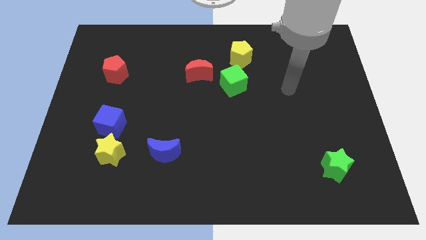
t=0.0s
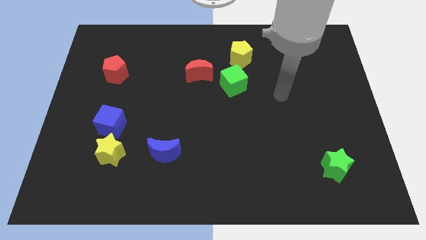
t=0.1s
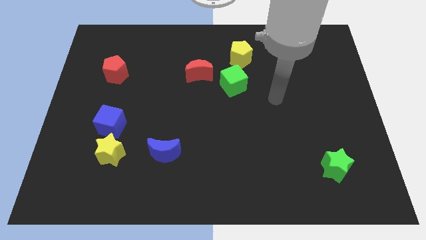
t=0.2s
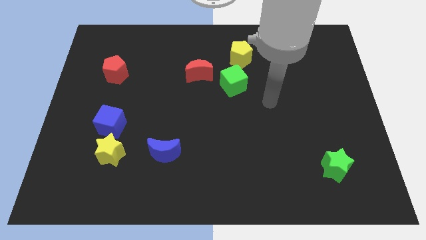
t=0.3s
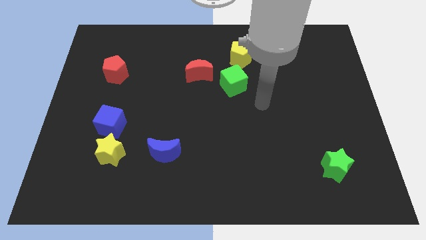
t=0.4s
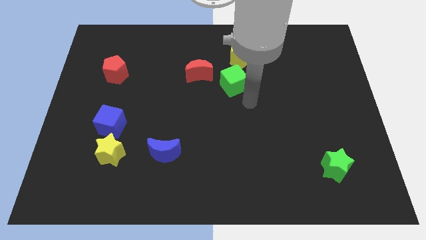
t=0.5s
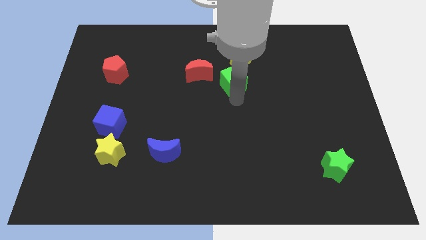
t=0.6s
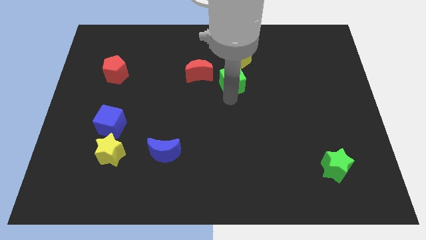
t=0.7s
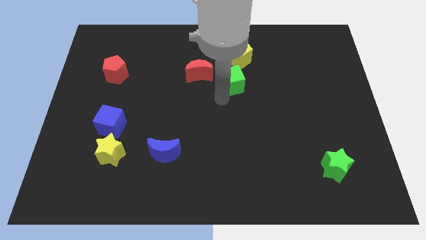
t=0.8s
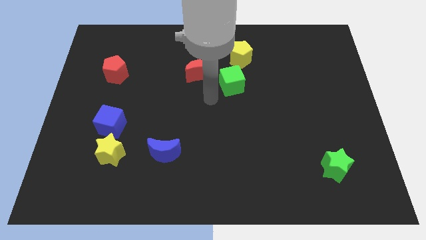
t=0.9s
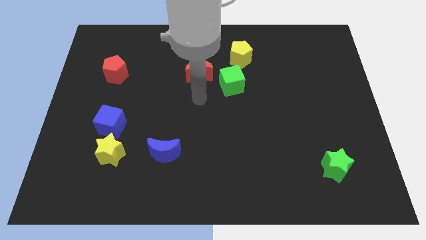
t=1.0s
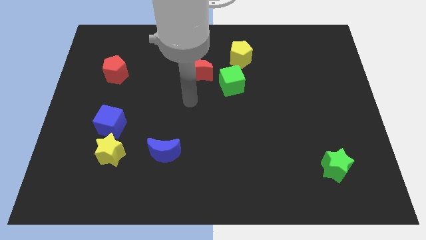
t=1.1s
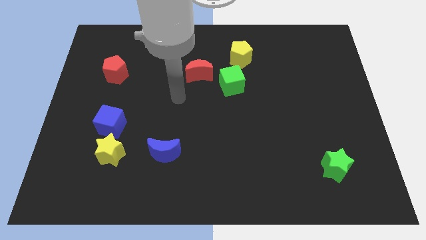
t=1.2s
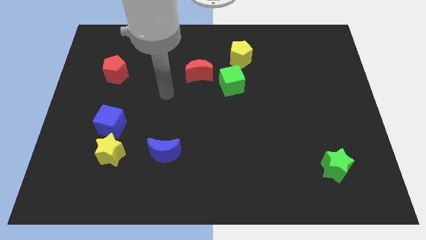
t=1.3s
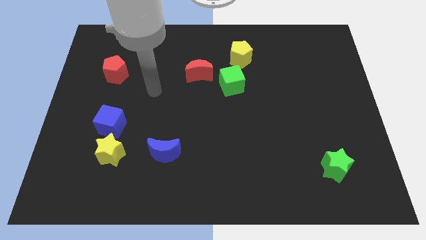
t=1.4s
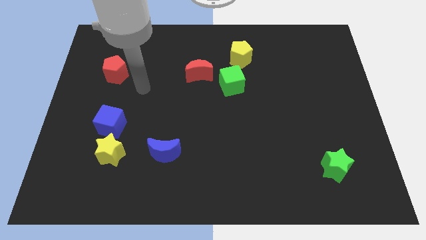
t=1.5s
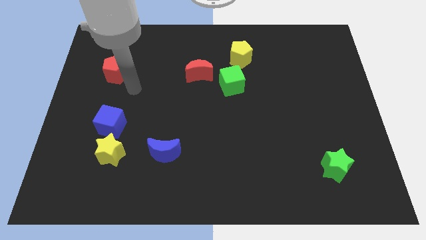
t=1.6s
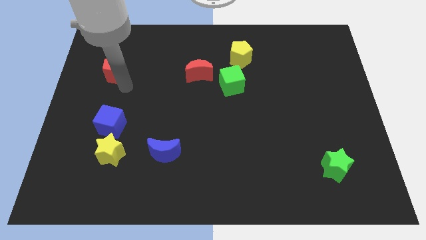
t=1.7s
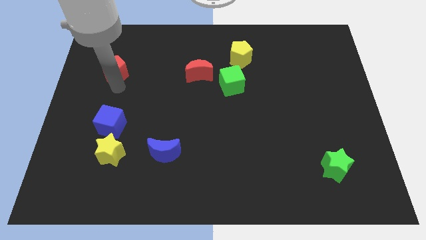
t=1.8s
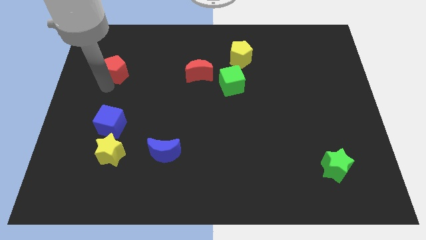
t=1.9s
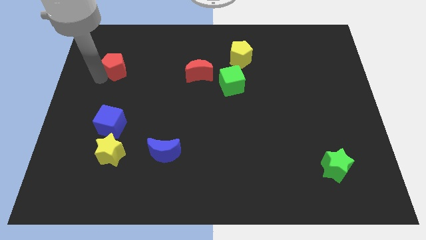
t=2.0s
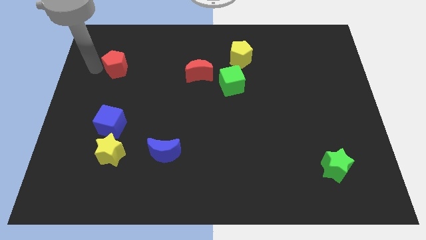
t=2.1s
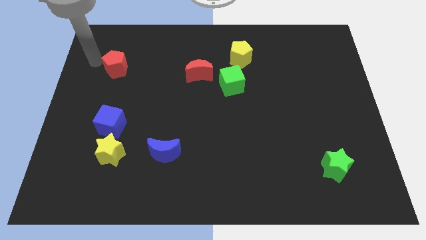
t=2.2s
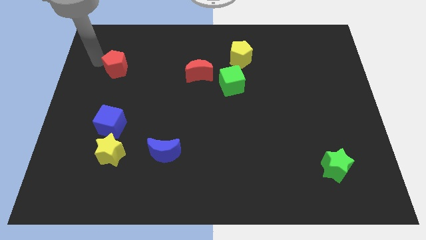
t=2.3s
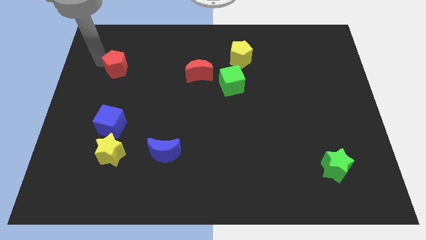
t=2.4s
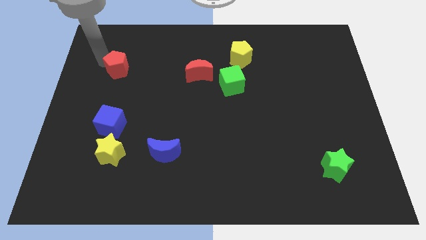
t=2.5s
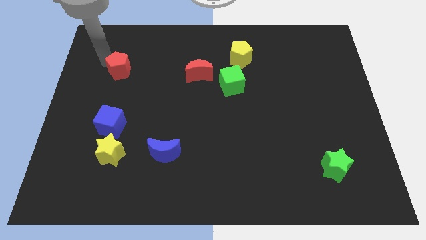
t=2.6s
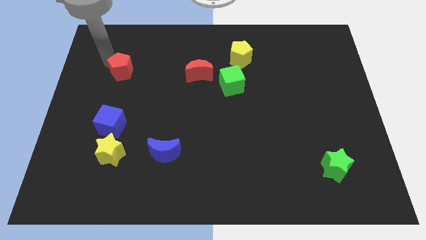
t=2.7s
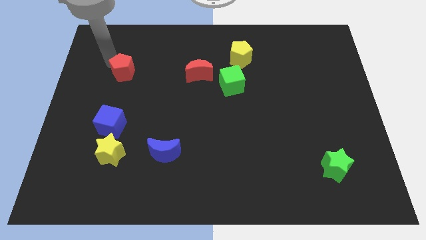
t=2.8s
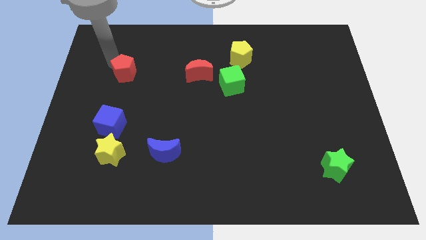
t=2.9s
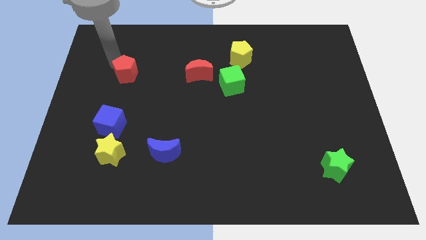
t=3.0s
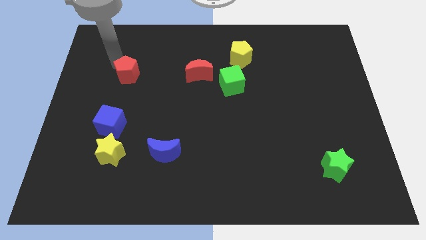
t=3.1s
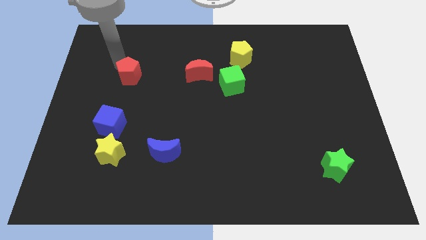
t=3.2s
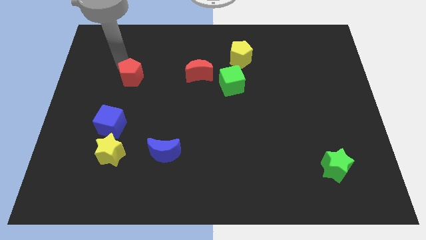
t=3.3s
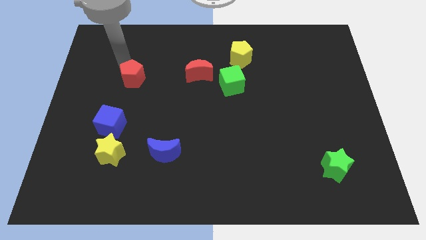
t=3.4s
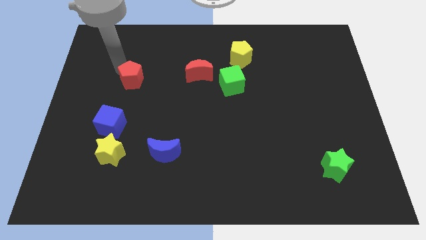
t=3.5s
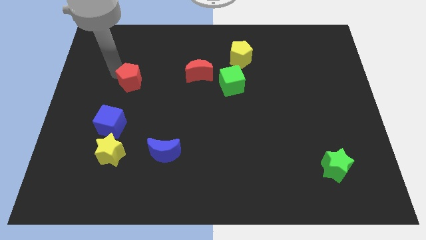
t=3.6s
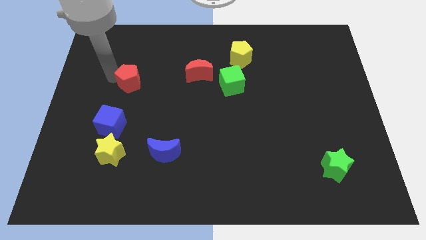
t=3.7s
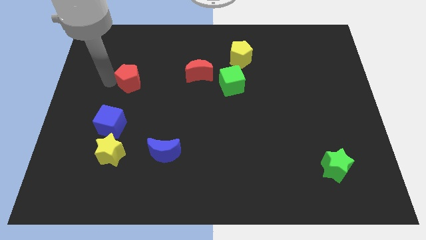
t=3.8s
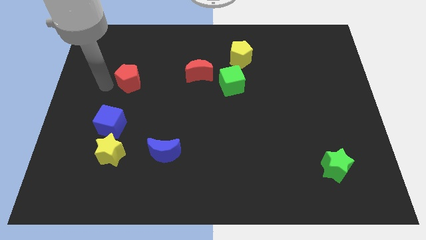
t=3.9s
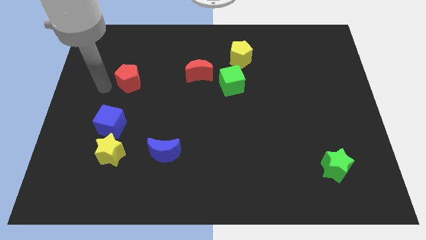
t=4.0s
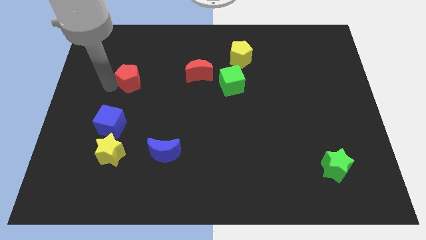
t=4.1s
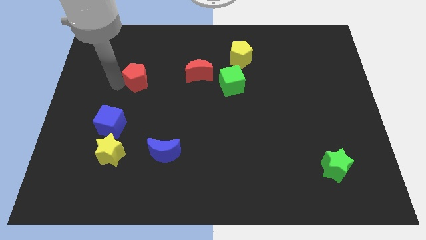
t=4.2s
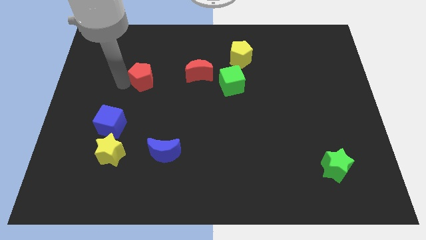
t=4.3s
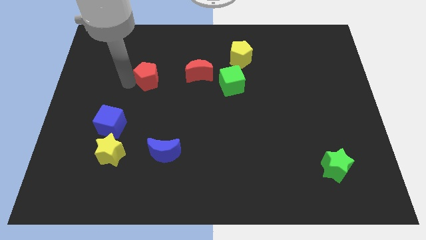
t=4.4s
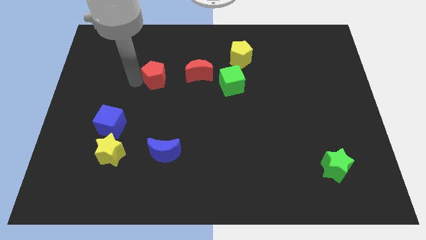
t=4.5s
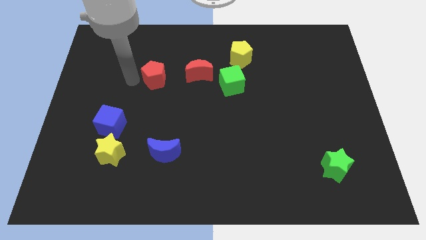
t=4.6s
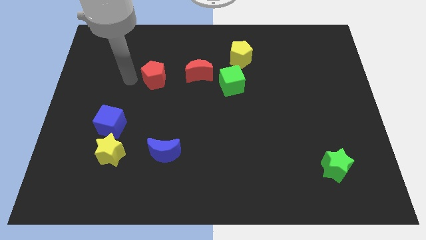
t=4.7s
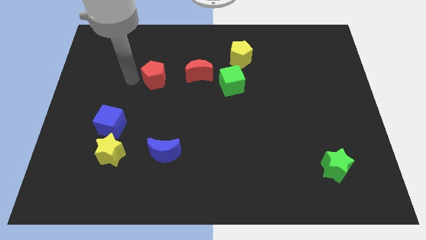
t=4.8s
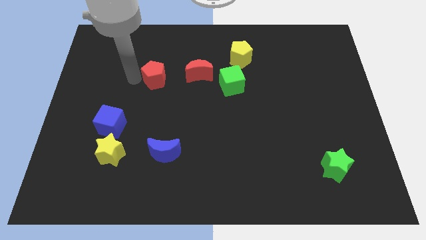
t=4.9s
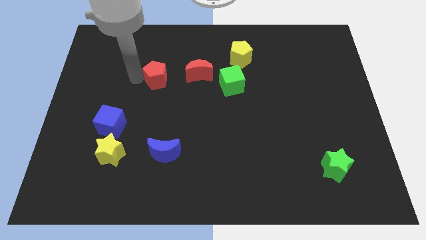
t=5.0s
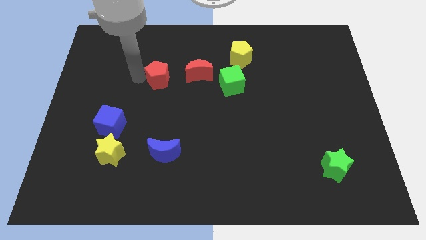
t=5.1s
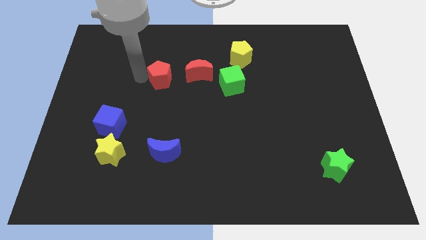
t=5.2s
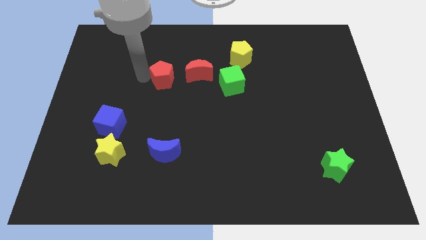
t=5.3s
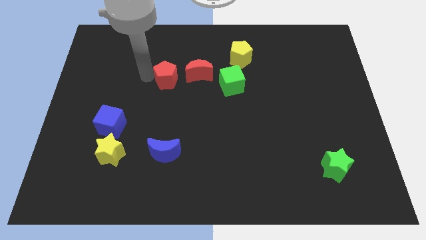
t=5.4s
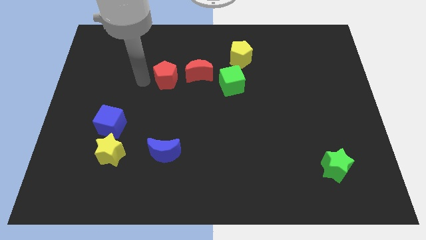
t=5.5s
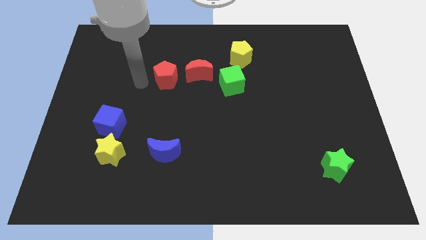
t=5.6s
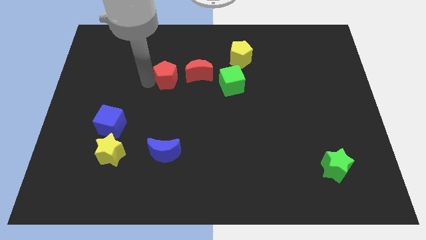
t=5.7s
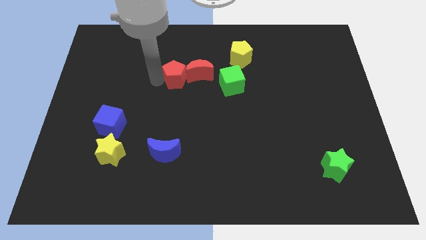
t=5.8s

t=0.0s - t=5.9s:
put the red pentagon close to the red moon

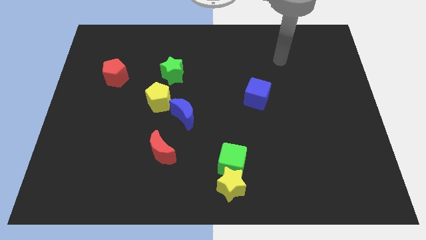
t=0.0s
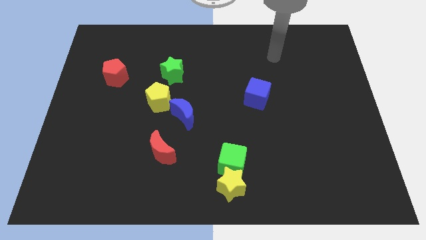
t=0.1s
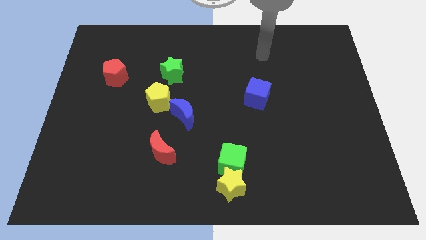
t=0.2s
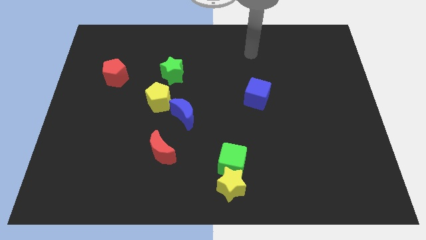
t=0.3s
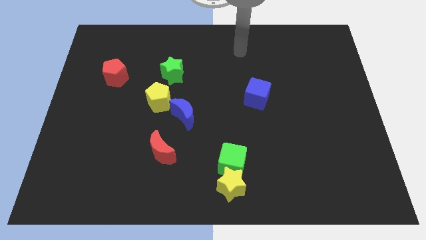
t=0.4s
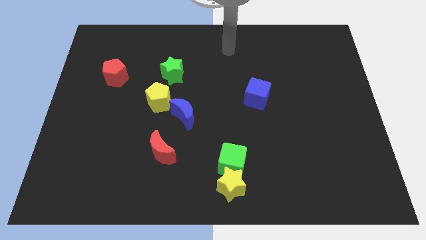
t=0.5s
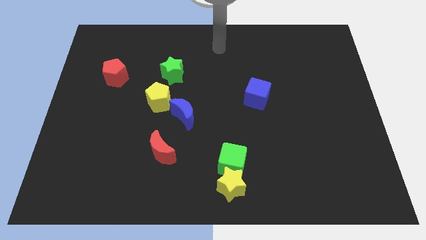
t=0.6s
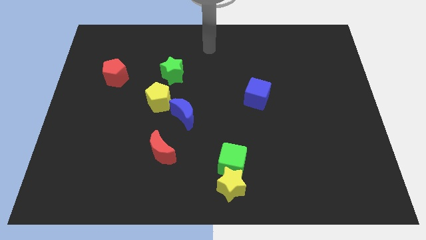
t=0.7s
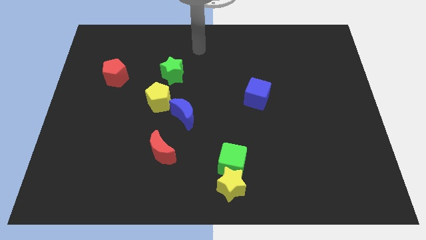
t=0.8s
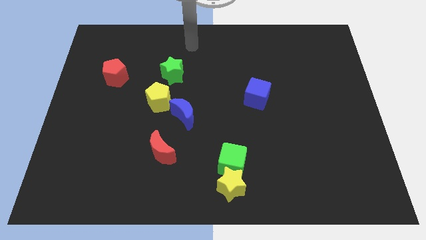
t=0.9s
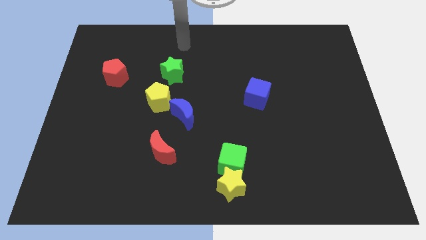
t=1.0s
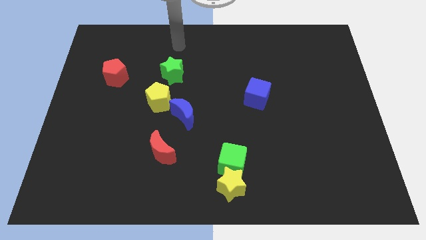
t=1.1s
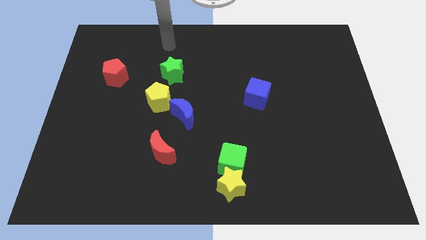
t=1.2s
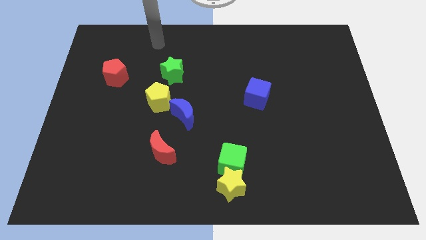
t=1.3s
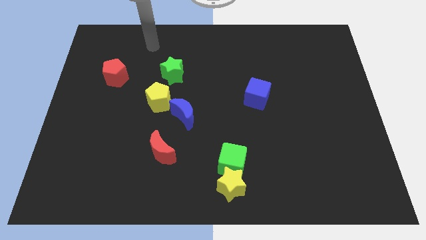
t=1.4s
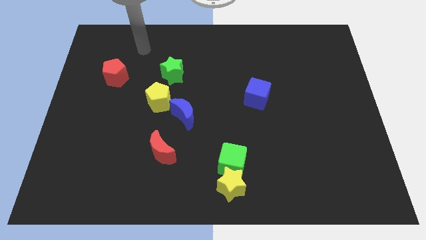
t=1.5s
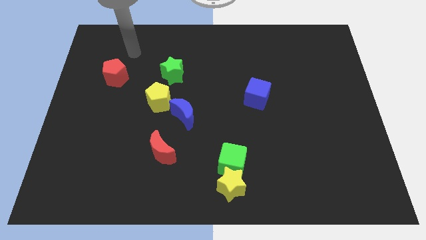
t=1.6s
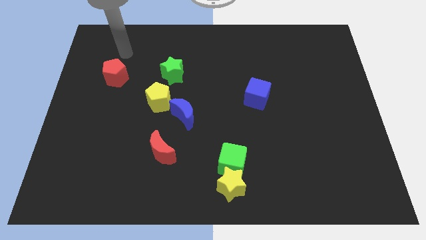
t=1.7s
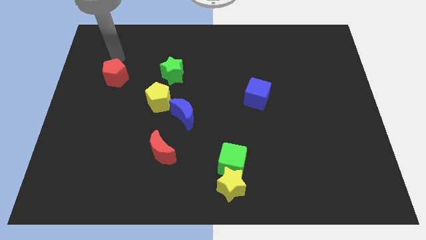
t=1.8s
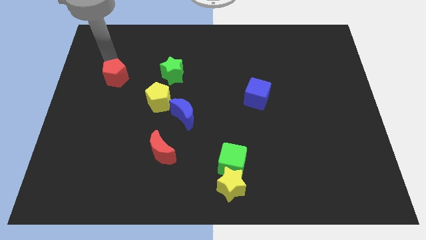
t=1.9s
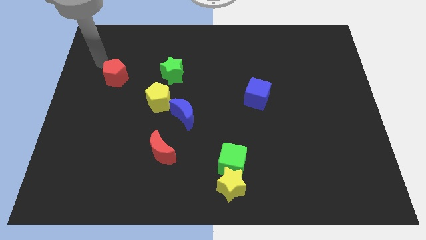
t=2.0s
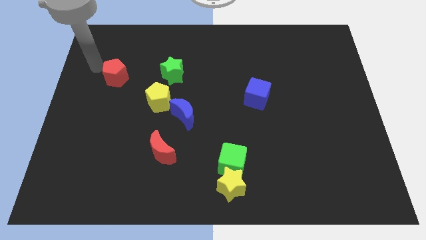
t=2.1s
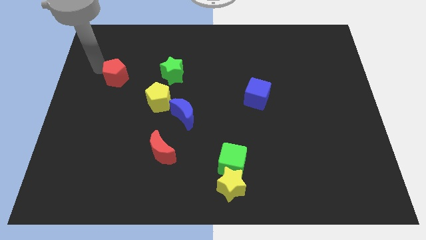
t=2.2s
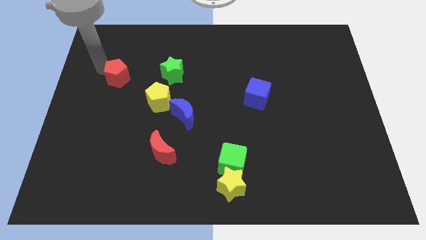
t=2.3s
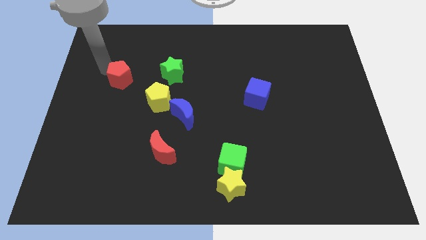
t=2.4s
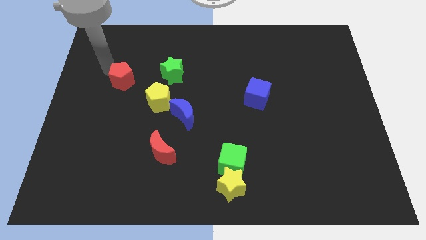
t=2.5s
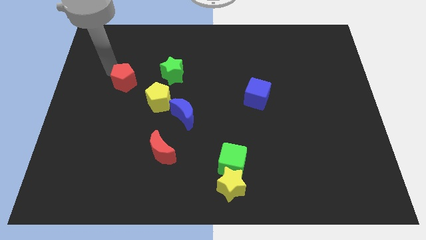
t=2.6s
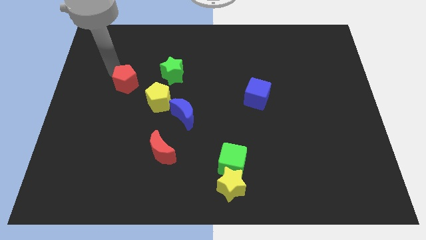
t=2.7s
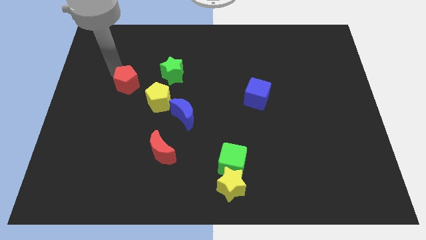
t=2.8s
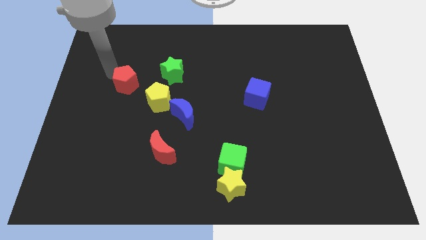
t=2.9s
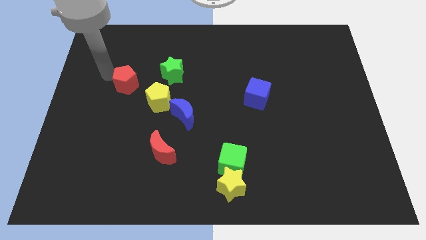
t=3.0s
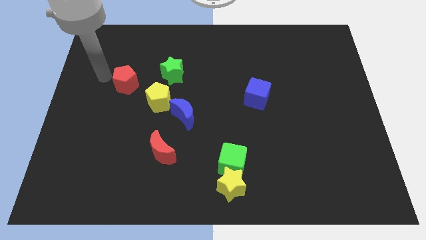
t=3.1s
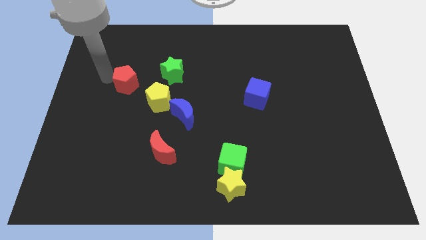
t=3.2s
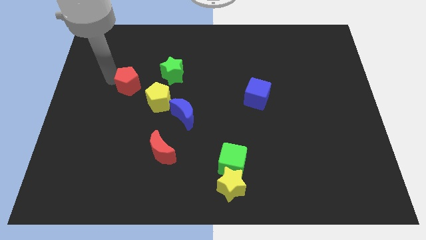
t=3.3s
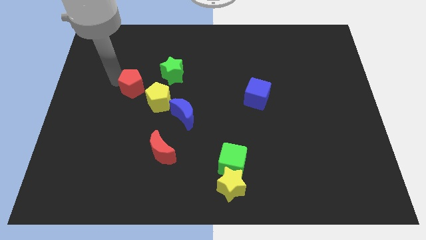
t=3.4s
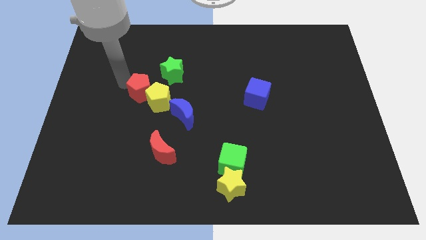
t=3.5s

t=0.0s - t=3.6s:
put the red pentagon to the yellow pentagon
